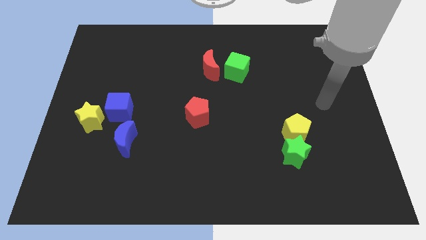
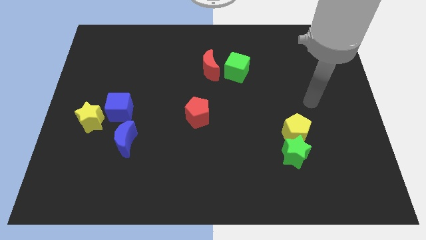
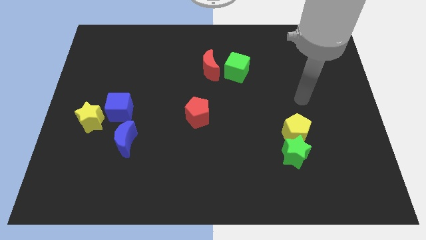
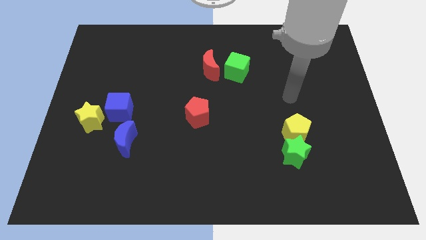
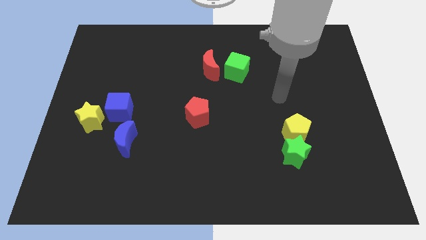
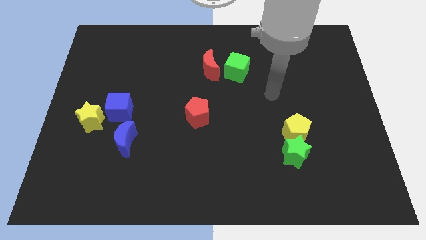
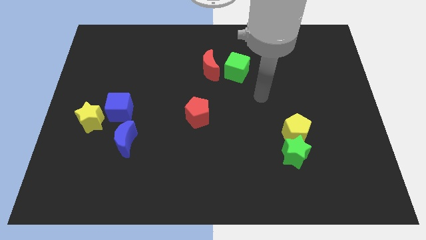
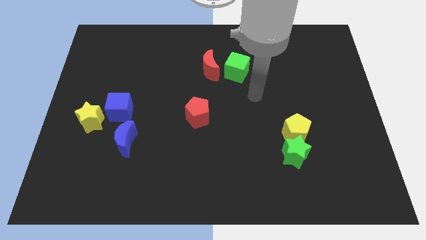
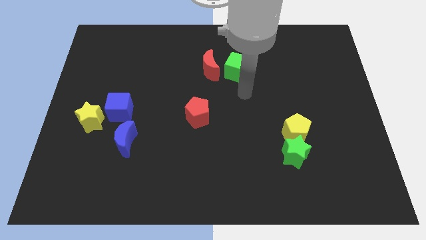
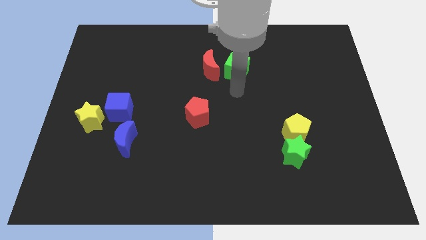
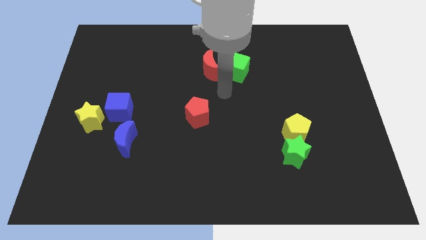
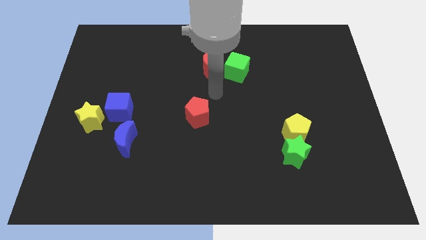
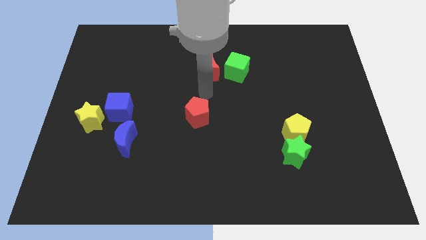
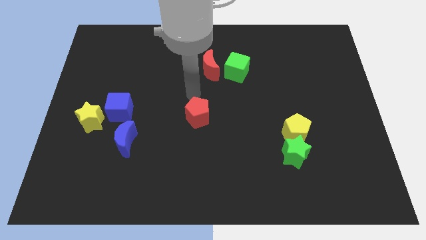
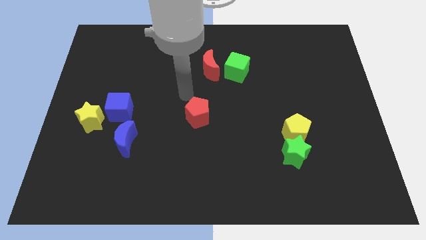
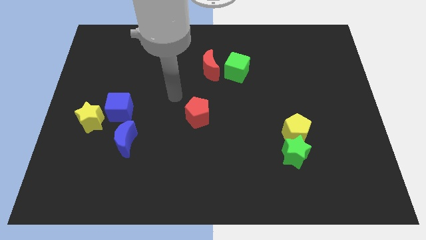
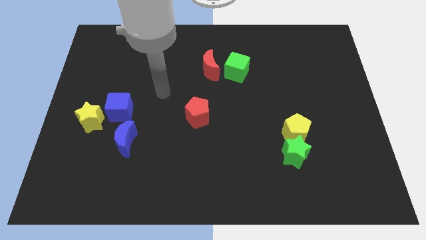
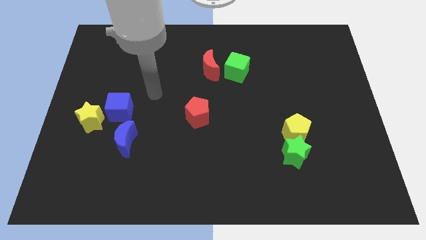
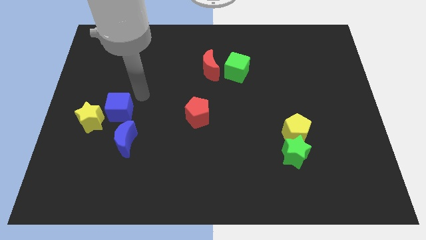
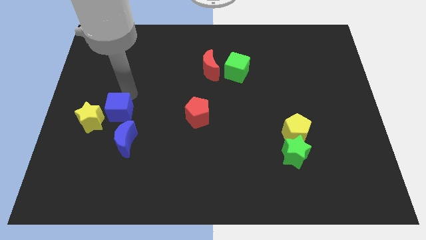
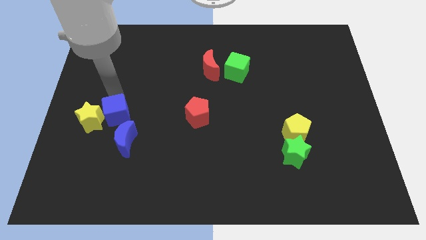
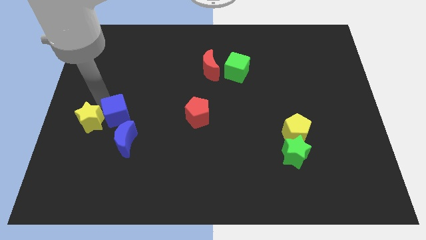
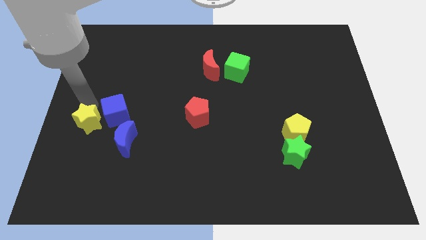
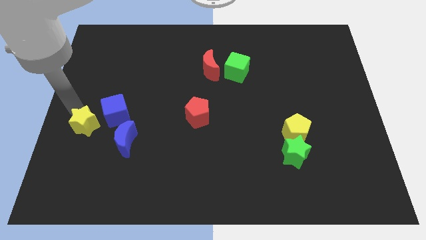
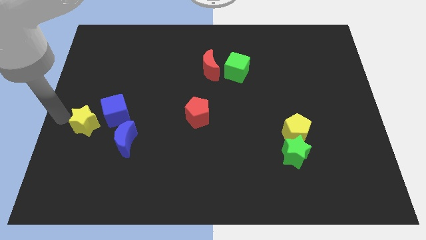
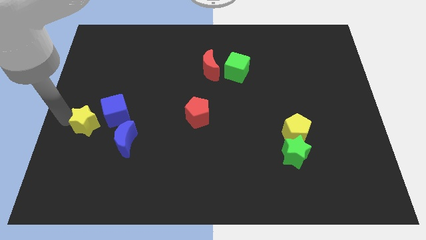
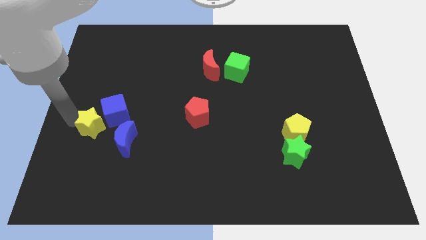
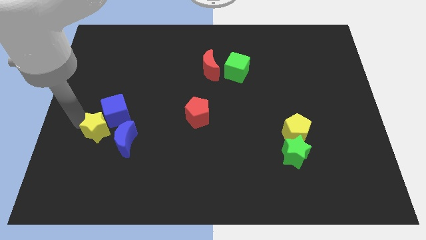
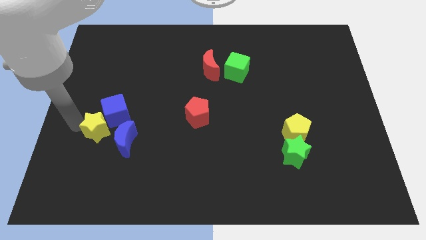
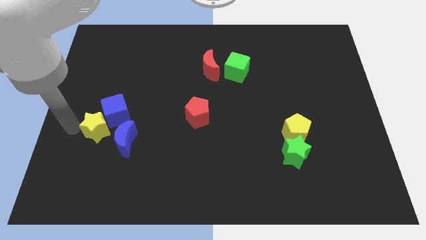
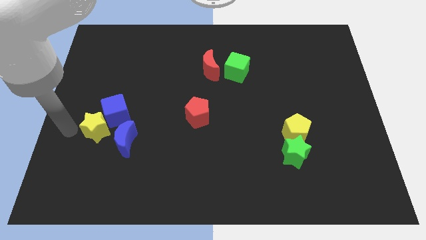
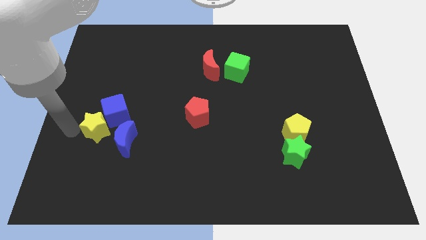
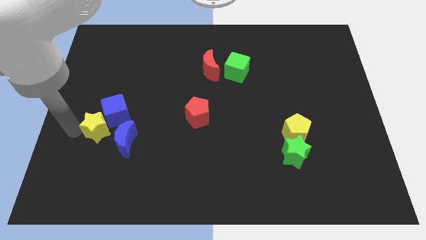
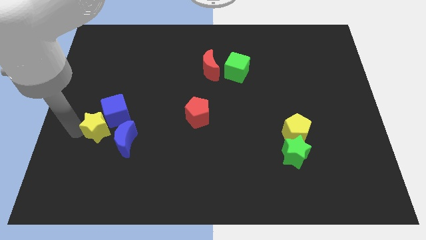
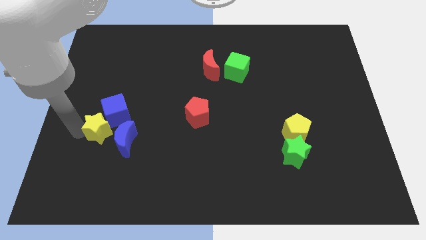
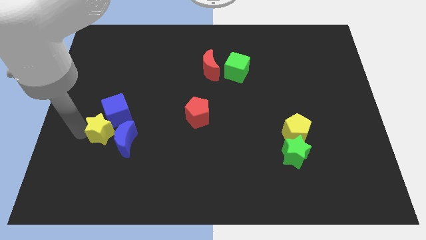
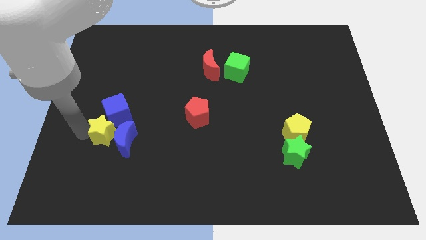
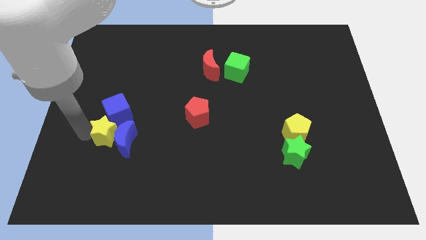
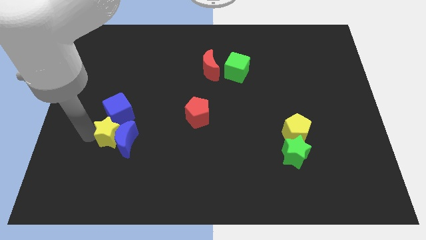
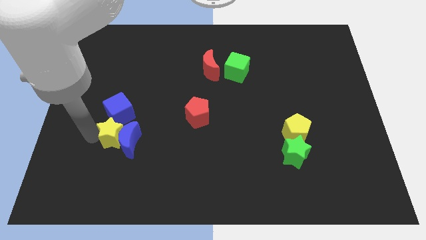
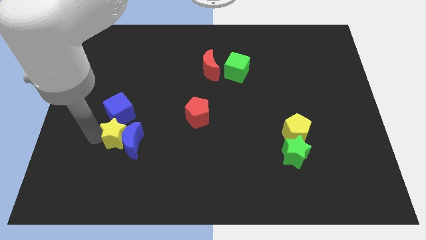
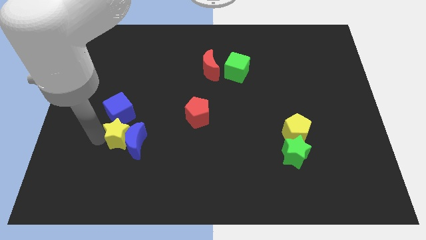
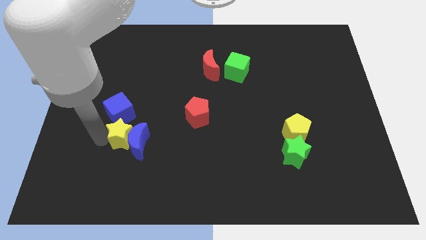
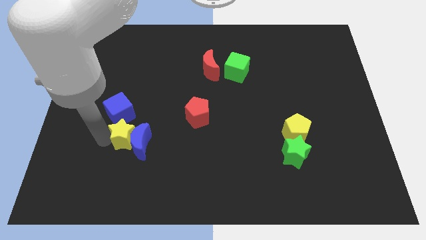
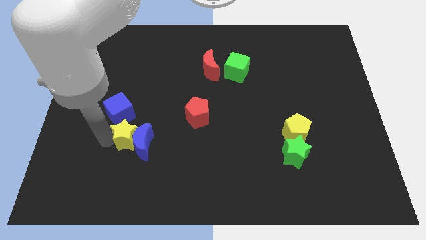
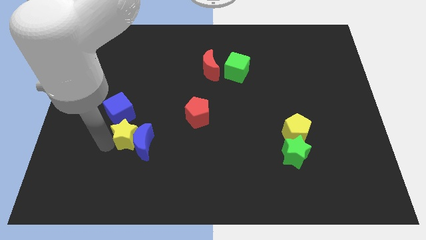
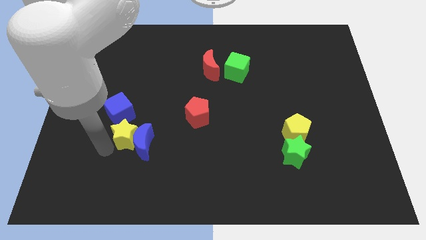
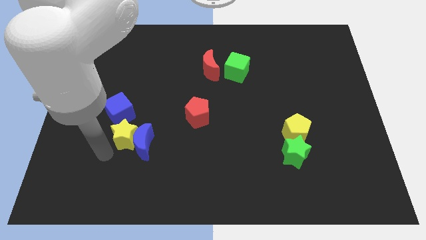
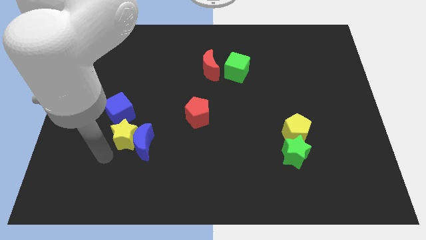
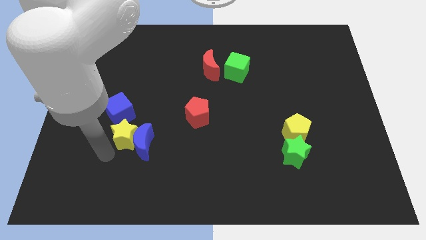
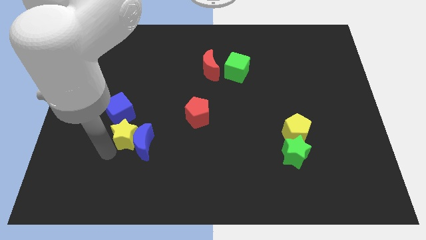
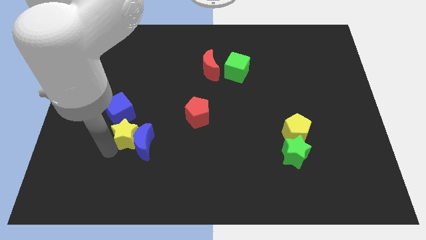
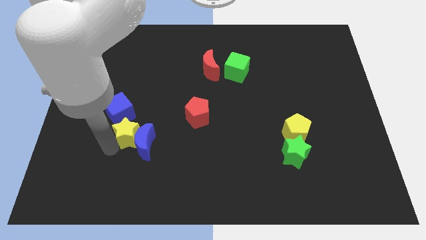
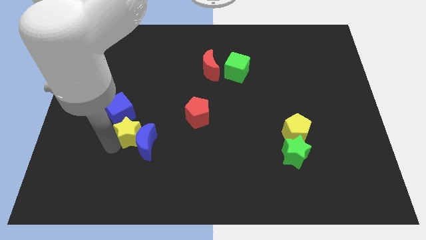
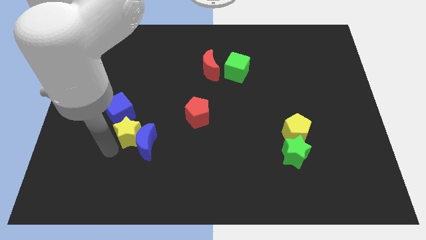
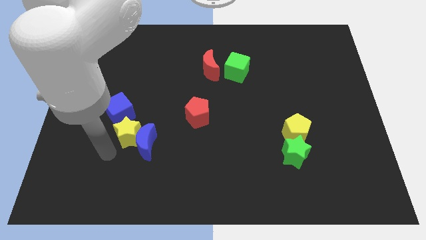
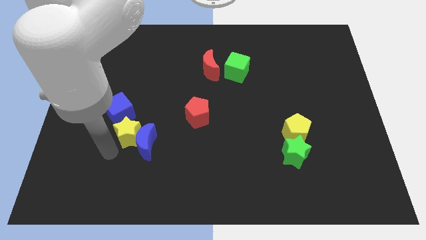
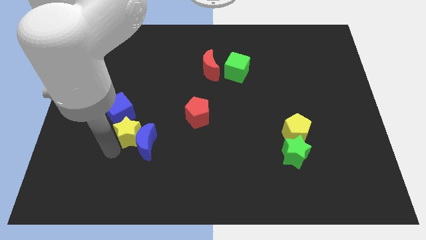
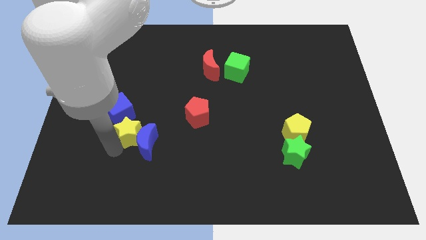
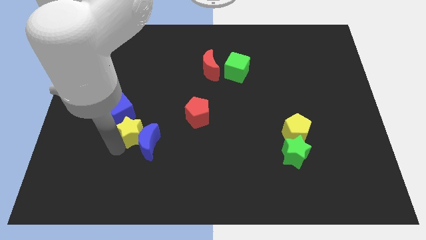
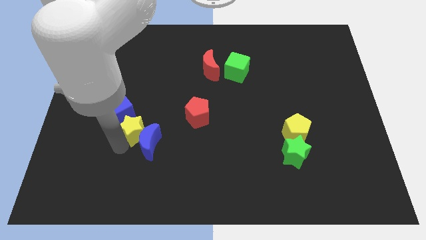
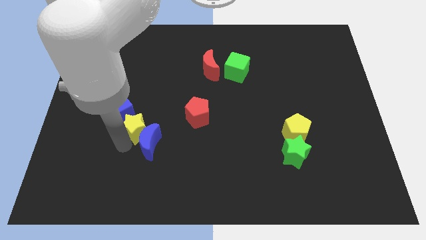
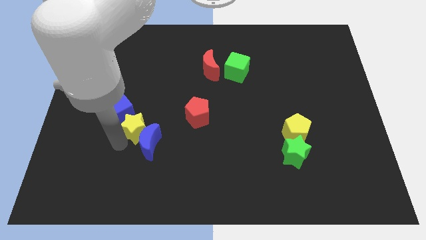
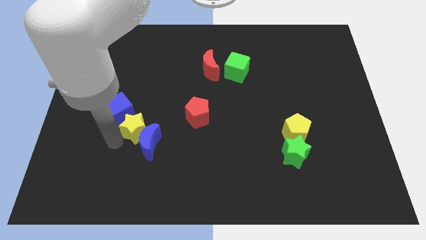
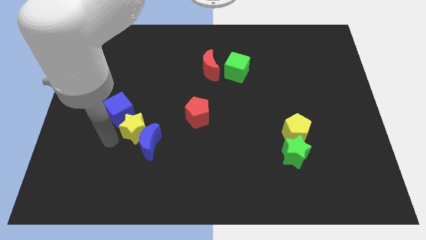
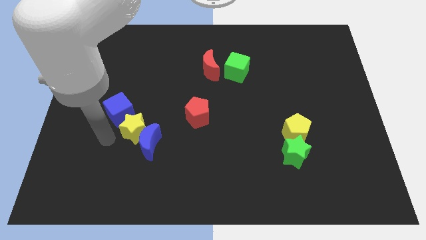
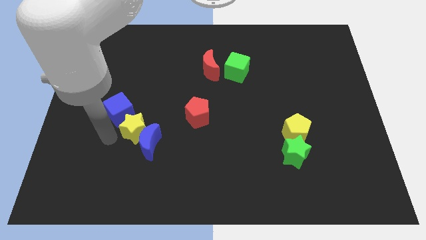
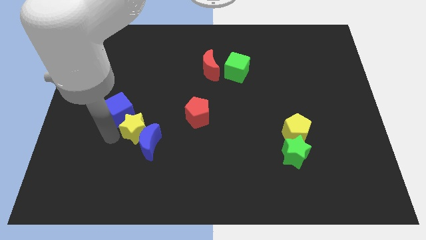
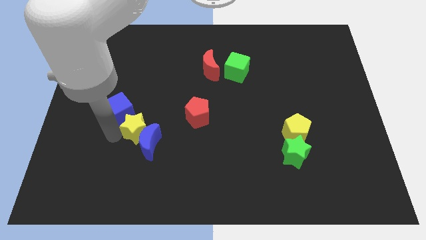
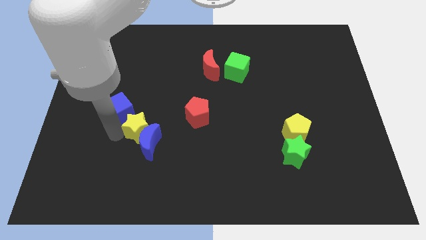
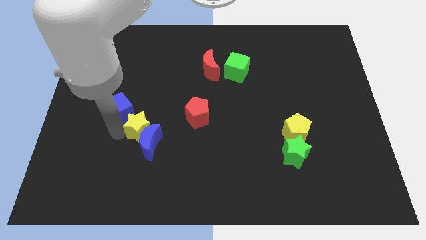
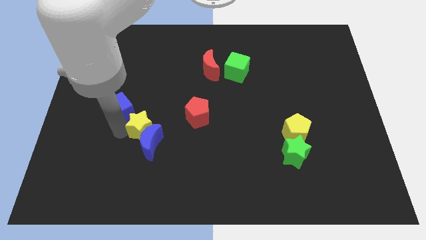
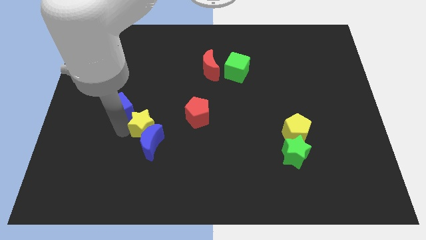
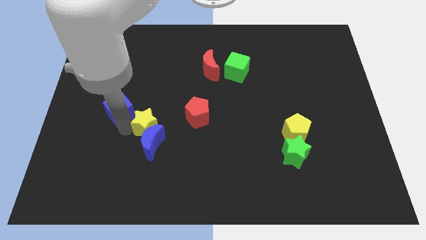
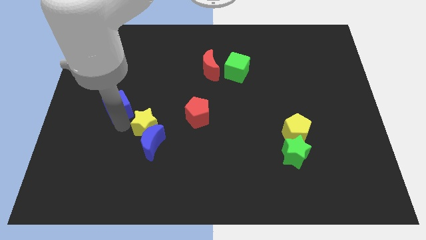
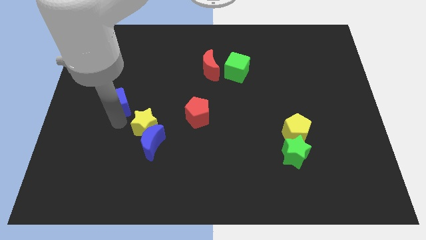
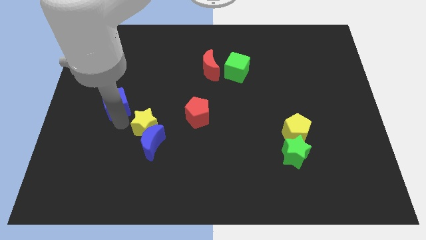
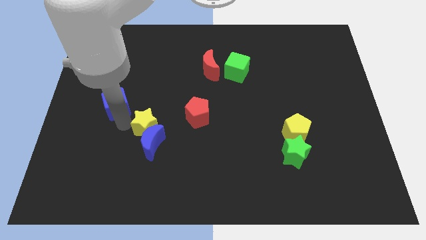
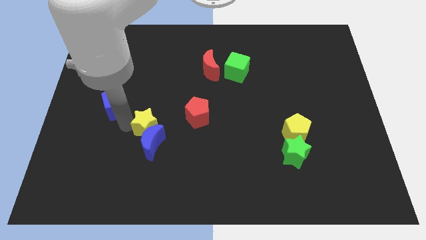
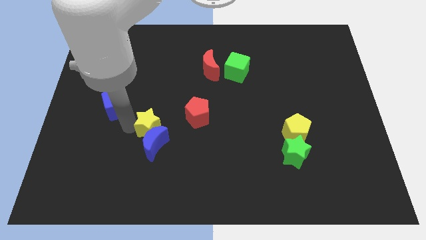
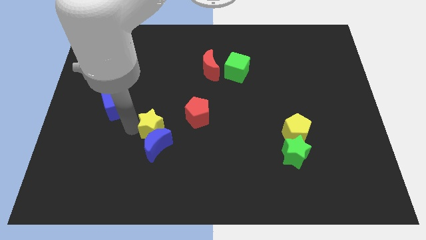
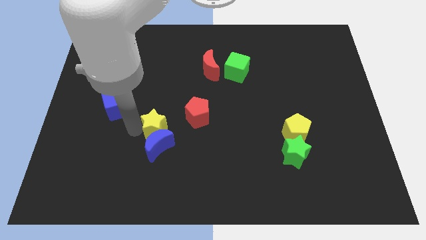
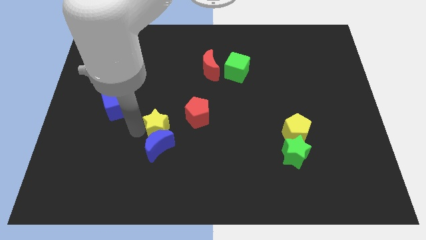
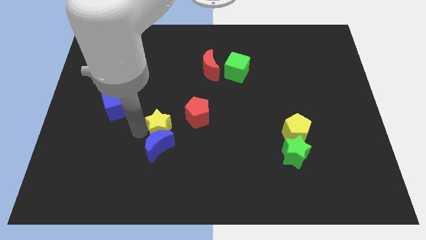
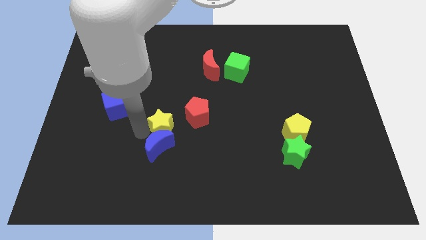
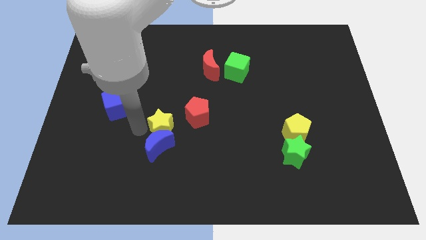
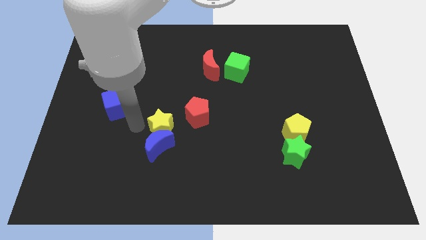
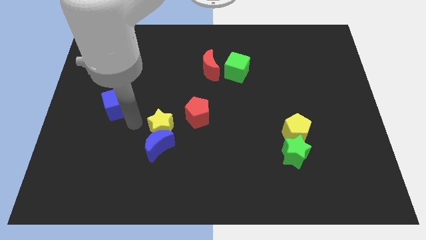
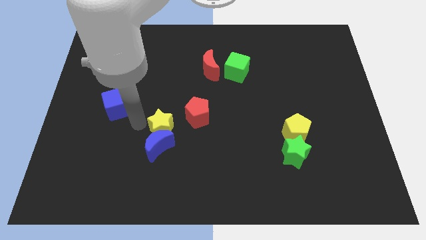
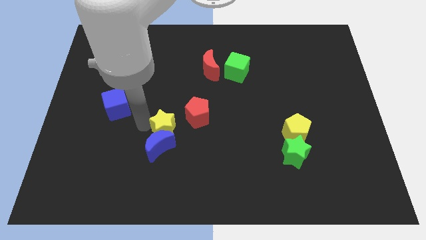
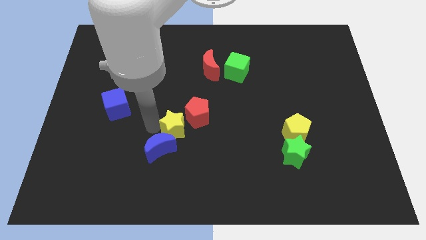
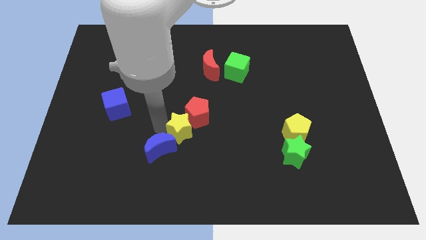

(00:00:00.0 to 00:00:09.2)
move the yellow star right
